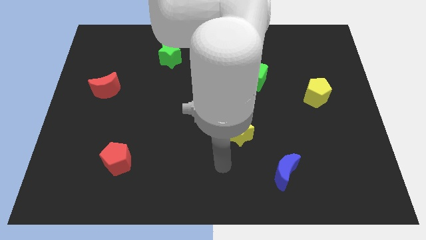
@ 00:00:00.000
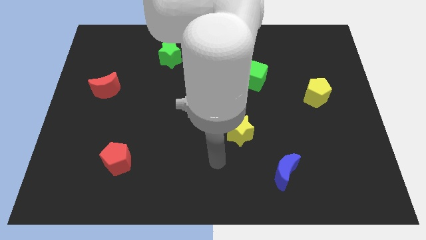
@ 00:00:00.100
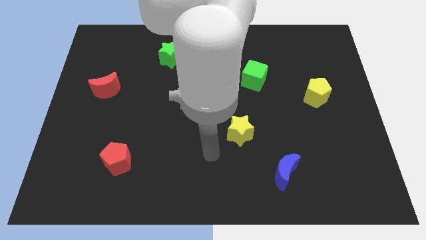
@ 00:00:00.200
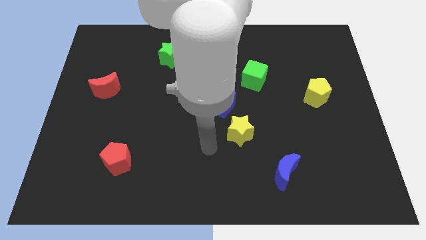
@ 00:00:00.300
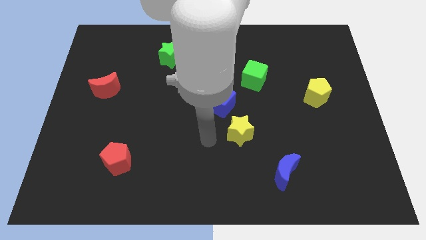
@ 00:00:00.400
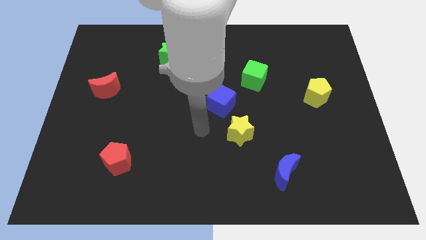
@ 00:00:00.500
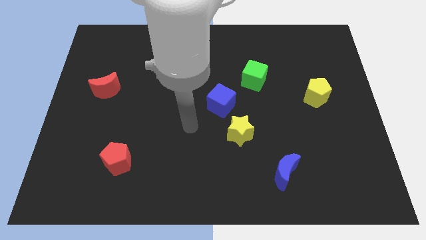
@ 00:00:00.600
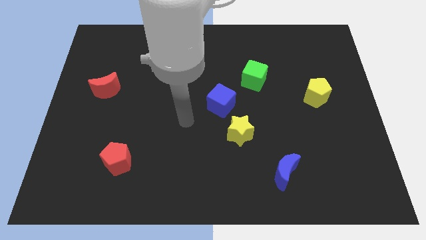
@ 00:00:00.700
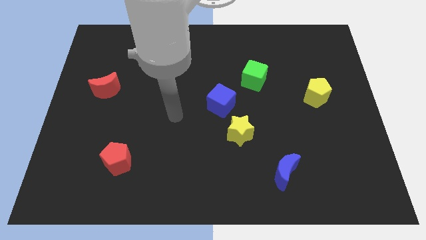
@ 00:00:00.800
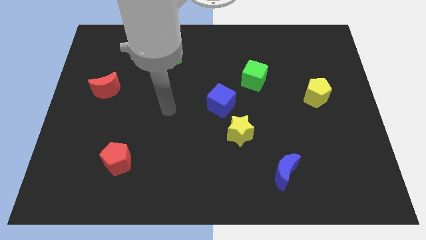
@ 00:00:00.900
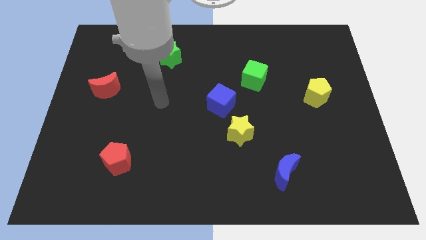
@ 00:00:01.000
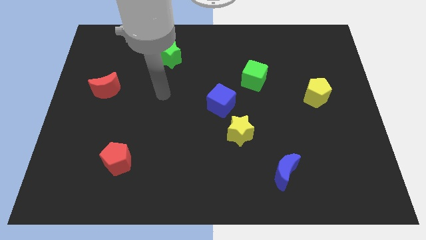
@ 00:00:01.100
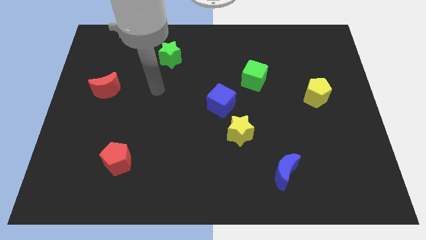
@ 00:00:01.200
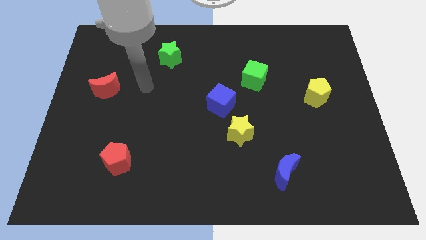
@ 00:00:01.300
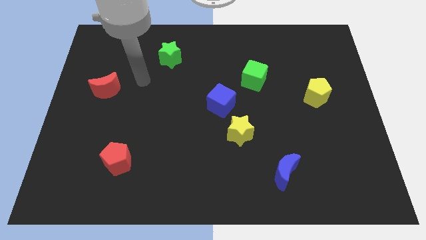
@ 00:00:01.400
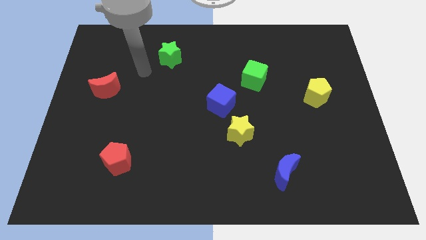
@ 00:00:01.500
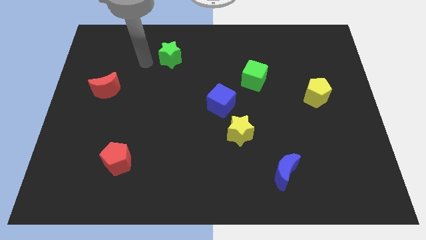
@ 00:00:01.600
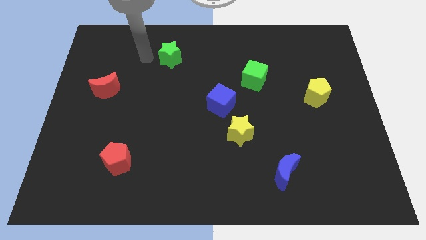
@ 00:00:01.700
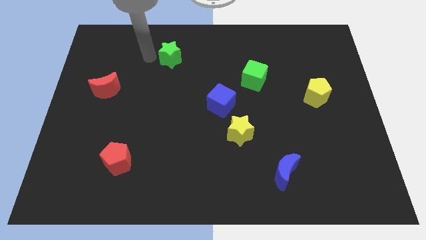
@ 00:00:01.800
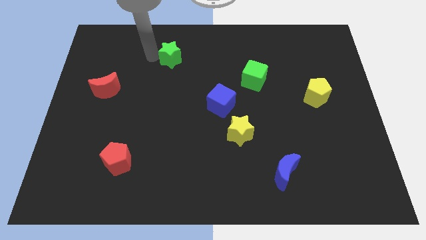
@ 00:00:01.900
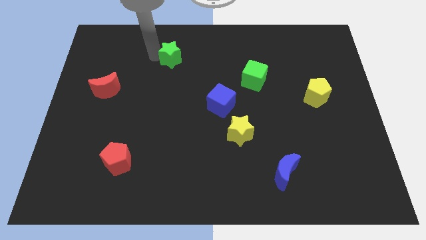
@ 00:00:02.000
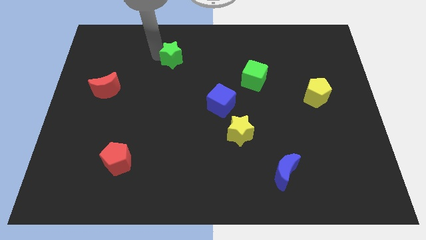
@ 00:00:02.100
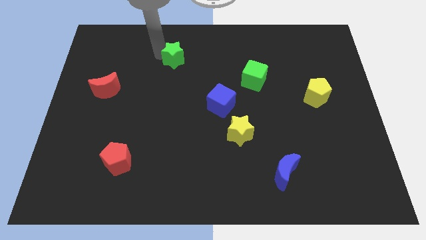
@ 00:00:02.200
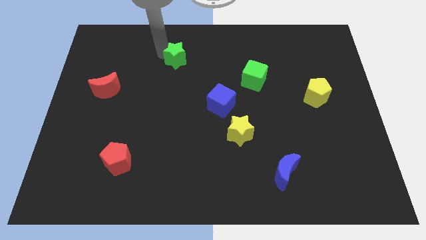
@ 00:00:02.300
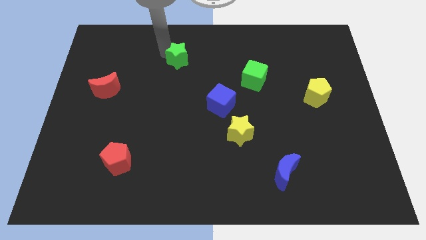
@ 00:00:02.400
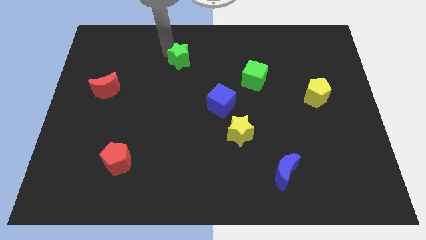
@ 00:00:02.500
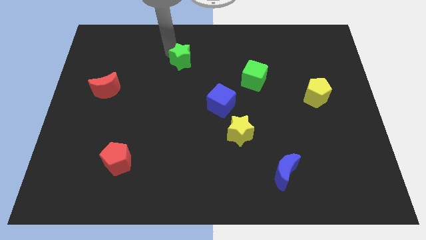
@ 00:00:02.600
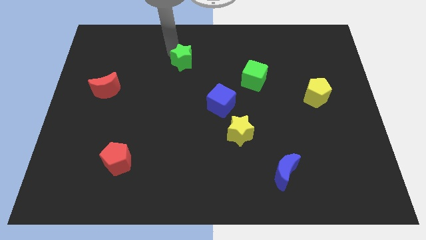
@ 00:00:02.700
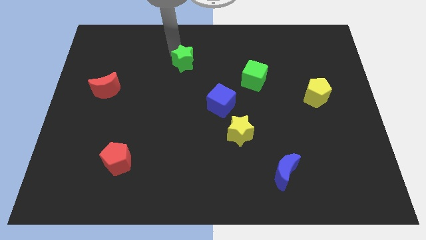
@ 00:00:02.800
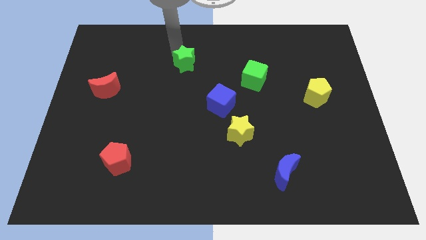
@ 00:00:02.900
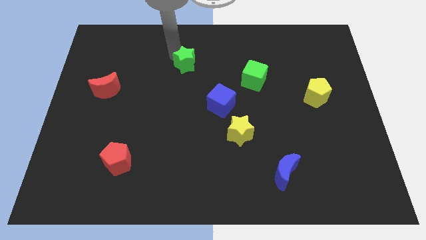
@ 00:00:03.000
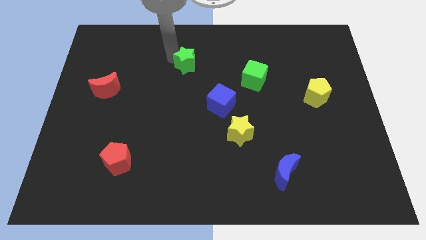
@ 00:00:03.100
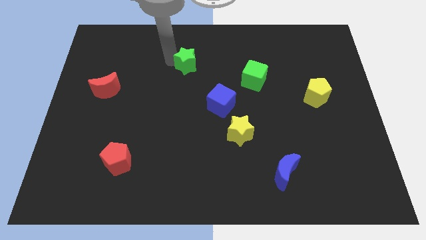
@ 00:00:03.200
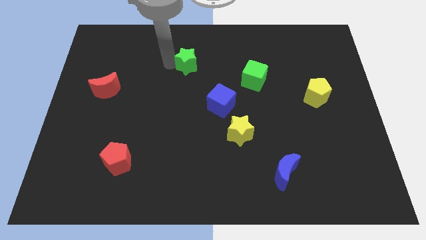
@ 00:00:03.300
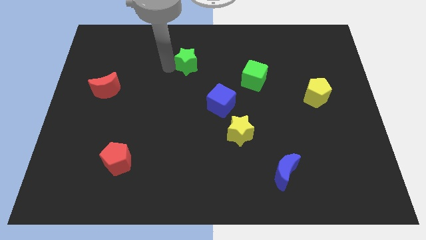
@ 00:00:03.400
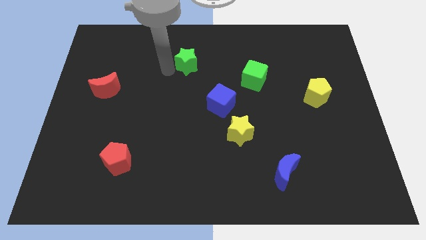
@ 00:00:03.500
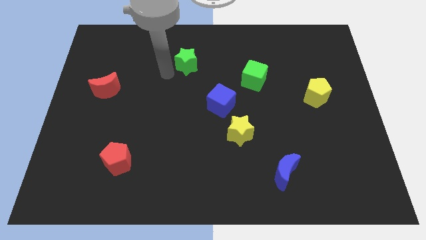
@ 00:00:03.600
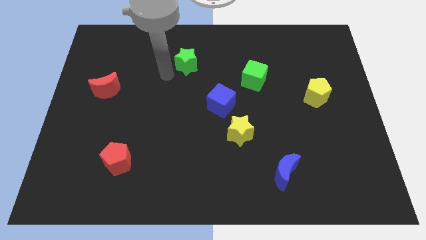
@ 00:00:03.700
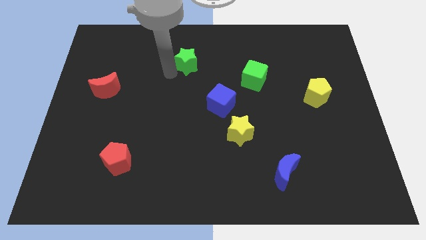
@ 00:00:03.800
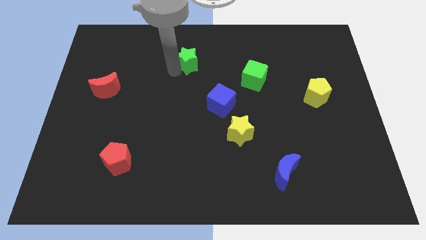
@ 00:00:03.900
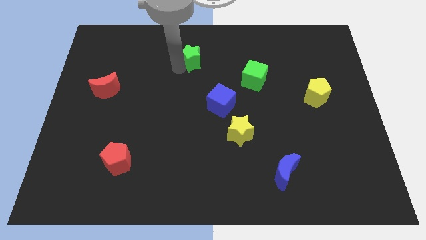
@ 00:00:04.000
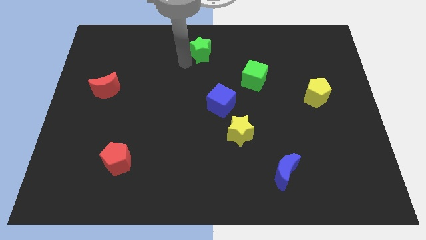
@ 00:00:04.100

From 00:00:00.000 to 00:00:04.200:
slide the green star to the right slightly

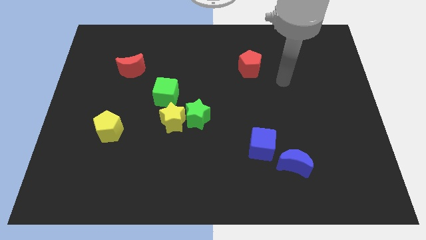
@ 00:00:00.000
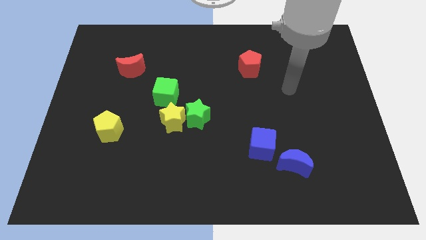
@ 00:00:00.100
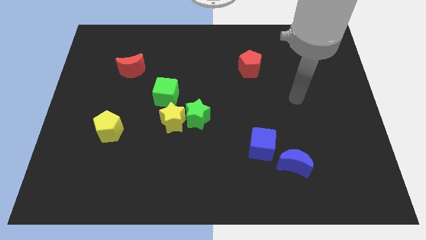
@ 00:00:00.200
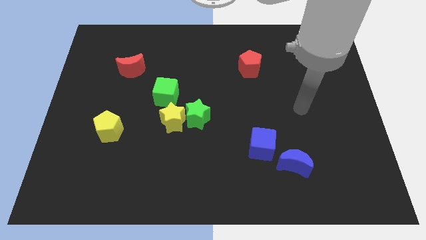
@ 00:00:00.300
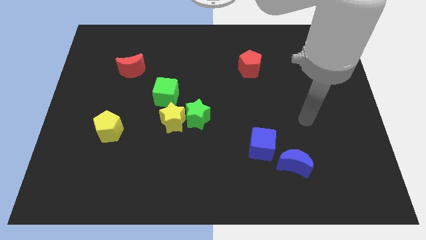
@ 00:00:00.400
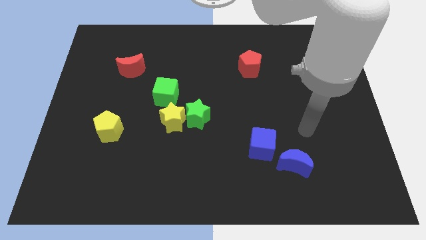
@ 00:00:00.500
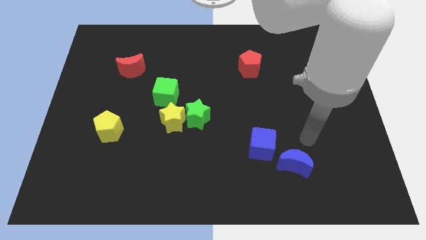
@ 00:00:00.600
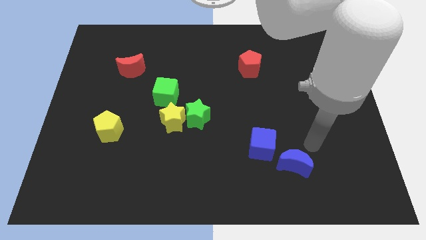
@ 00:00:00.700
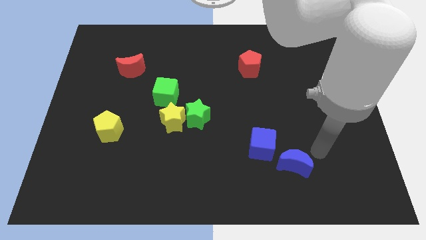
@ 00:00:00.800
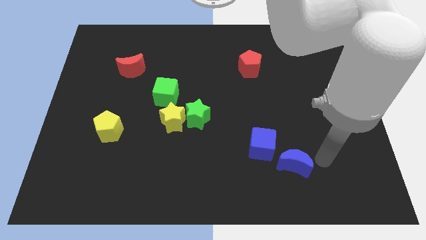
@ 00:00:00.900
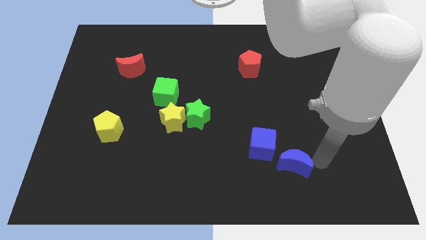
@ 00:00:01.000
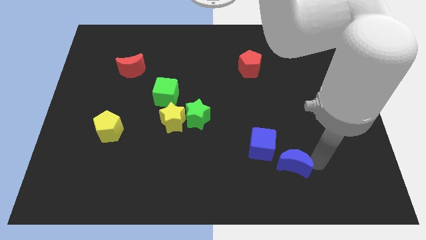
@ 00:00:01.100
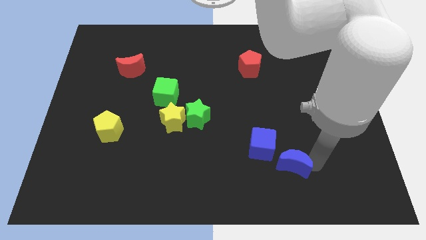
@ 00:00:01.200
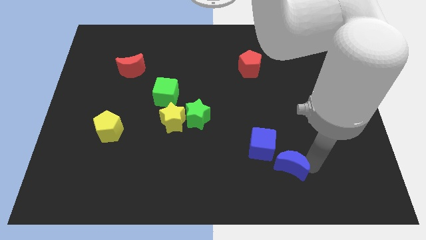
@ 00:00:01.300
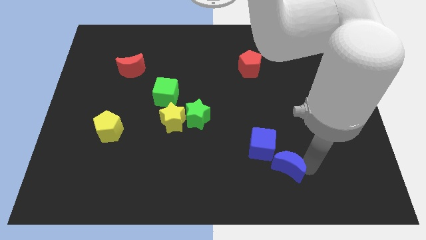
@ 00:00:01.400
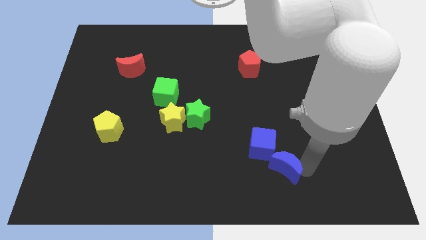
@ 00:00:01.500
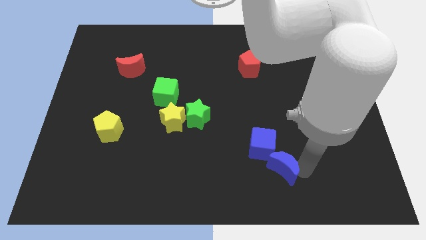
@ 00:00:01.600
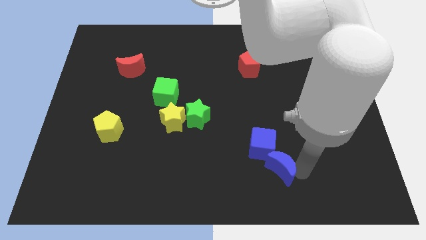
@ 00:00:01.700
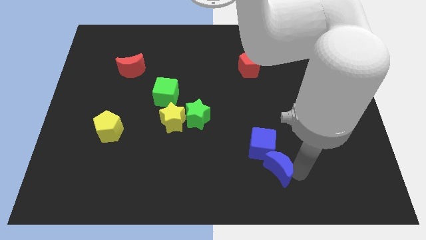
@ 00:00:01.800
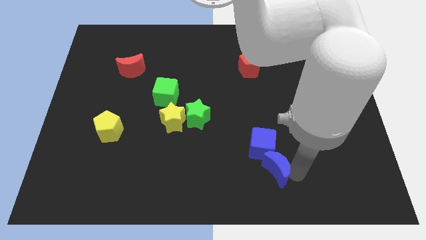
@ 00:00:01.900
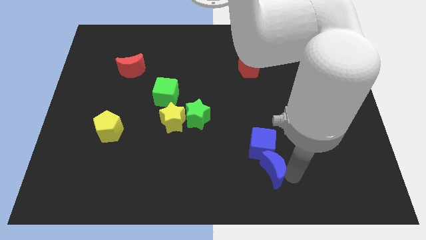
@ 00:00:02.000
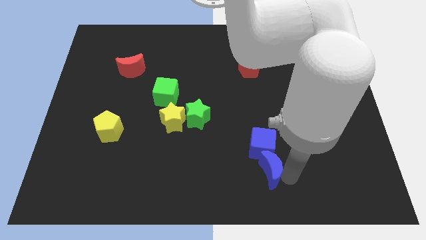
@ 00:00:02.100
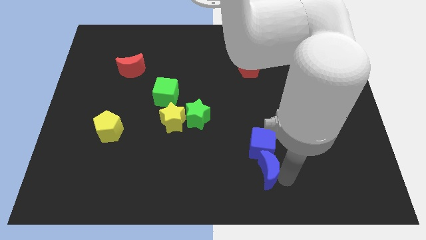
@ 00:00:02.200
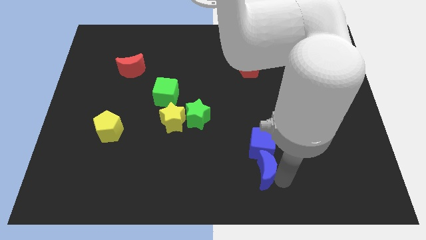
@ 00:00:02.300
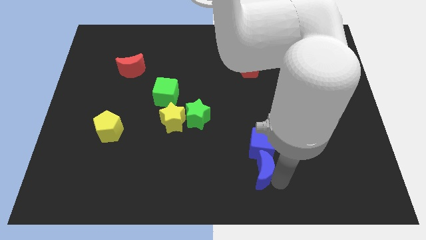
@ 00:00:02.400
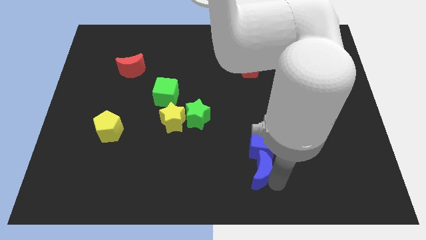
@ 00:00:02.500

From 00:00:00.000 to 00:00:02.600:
push the blue moon left a little

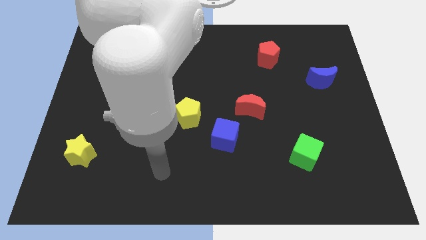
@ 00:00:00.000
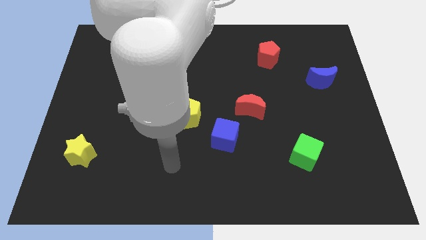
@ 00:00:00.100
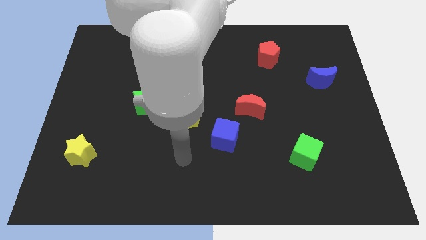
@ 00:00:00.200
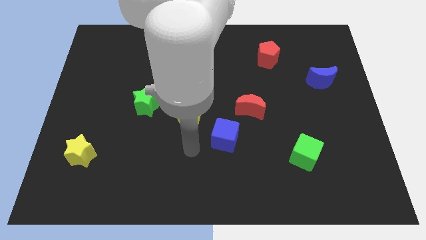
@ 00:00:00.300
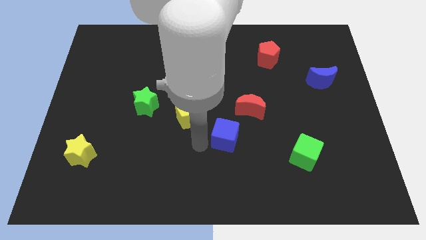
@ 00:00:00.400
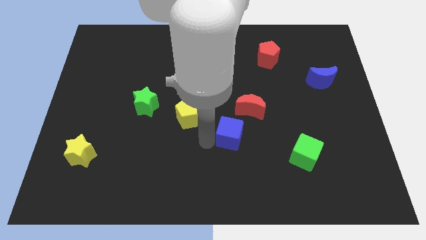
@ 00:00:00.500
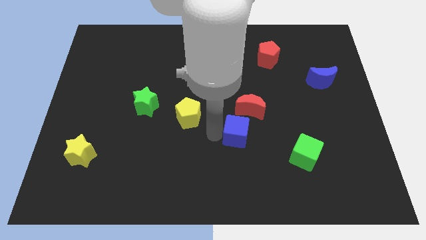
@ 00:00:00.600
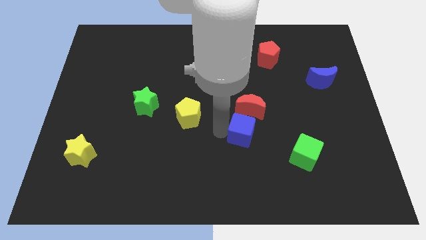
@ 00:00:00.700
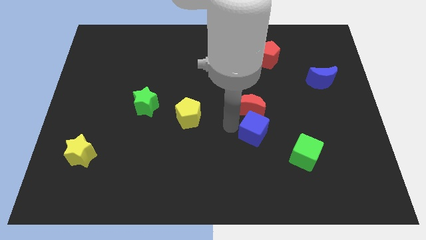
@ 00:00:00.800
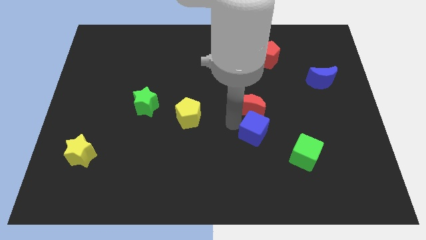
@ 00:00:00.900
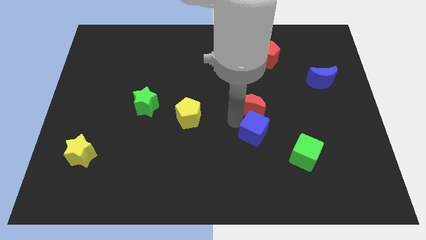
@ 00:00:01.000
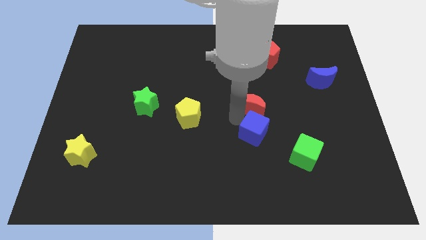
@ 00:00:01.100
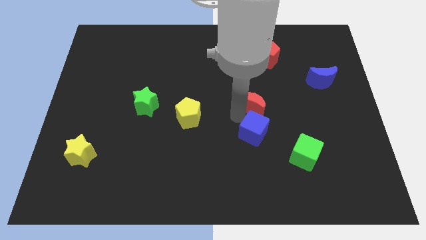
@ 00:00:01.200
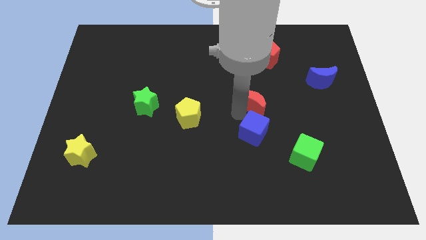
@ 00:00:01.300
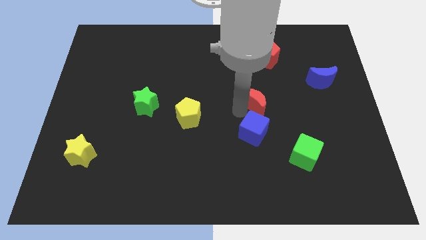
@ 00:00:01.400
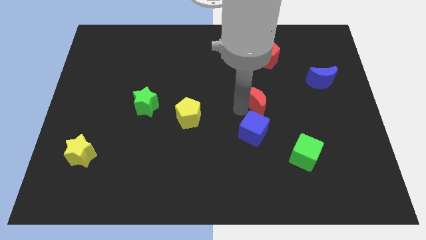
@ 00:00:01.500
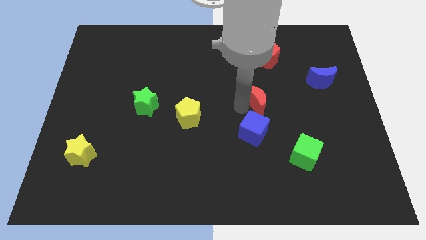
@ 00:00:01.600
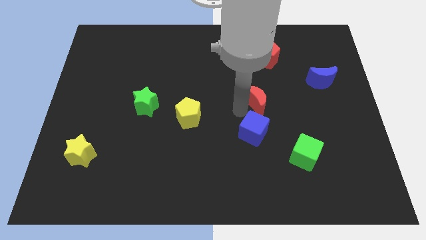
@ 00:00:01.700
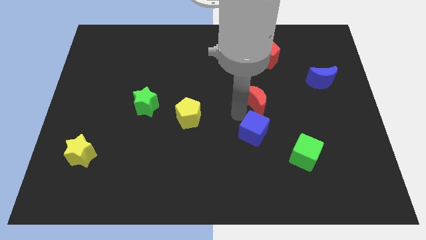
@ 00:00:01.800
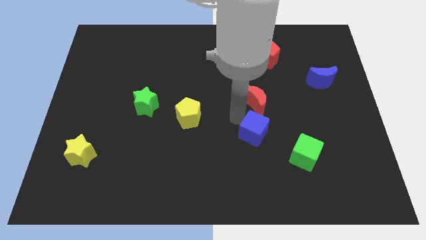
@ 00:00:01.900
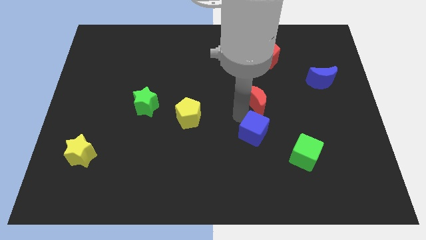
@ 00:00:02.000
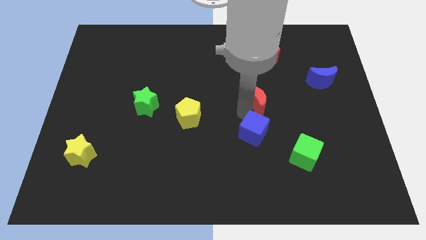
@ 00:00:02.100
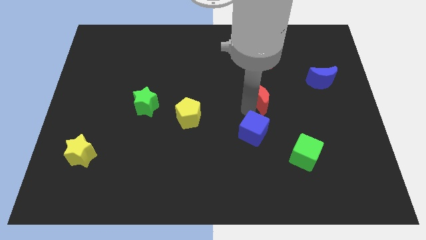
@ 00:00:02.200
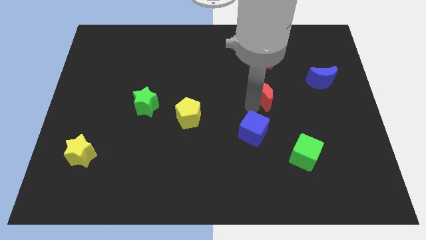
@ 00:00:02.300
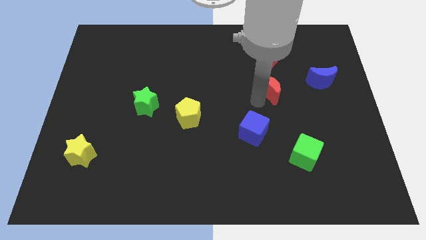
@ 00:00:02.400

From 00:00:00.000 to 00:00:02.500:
slightly slide the red moon up and to the right
